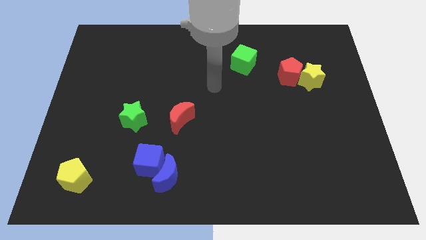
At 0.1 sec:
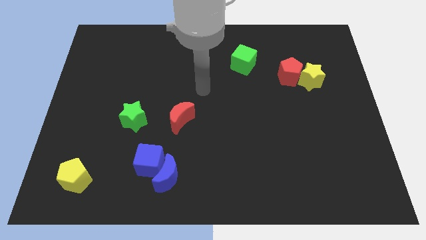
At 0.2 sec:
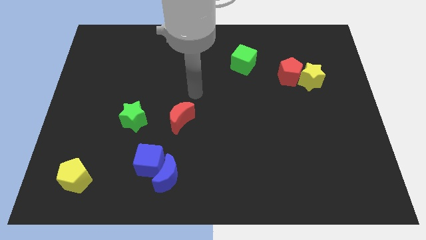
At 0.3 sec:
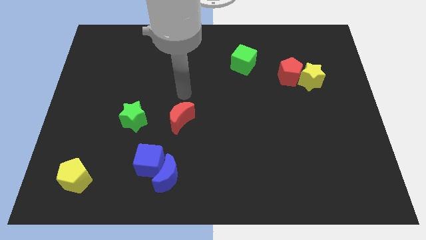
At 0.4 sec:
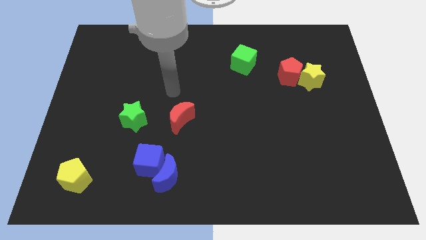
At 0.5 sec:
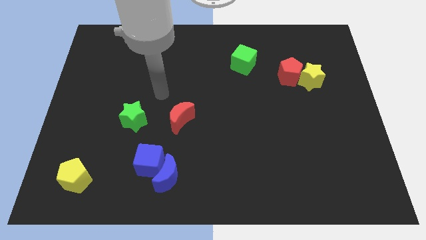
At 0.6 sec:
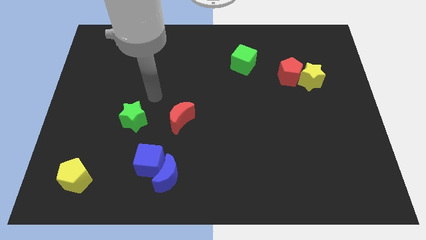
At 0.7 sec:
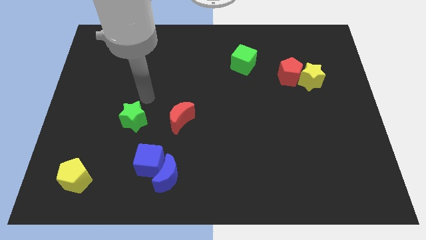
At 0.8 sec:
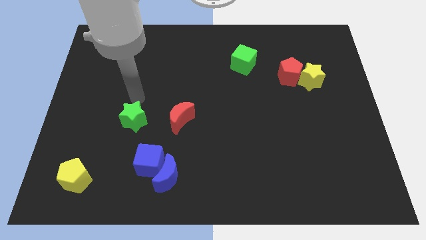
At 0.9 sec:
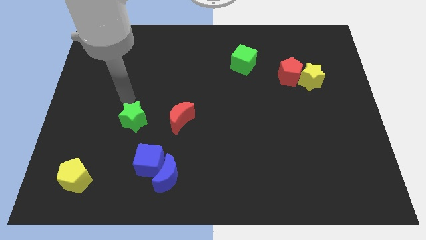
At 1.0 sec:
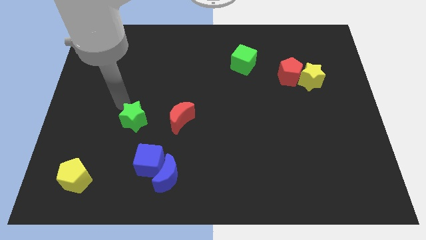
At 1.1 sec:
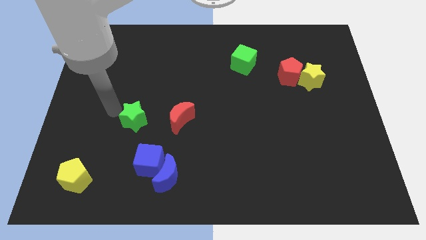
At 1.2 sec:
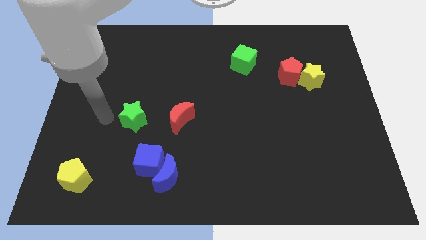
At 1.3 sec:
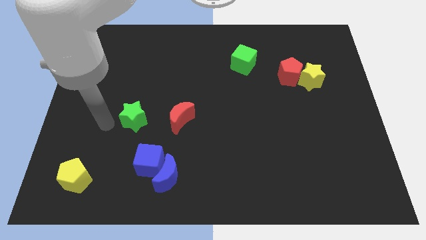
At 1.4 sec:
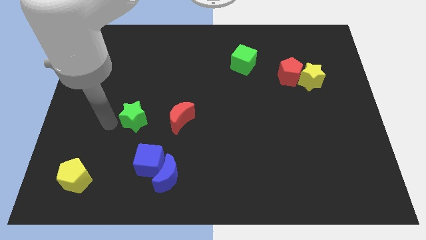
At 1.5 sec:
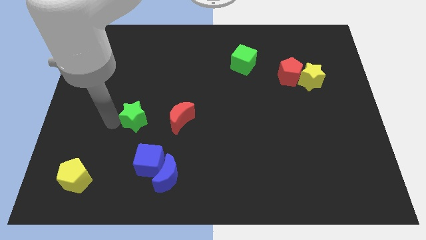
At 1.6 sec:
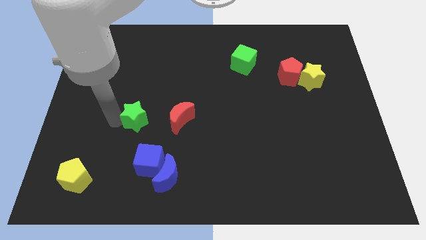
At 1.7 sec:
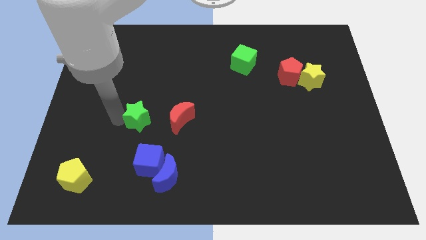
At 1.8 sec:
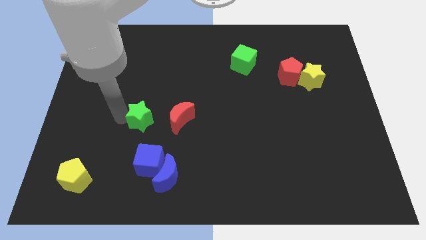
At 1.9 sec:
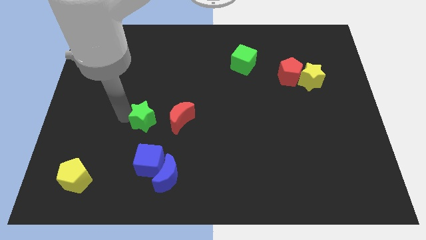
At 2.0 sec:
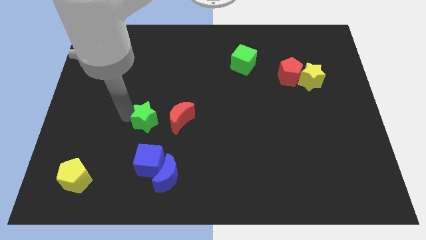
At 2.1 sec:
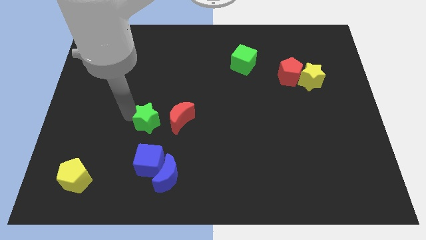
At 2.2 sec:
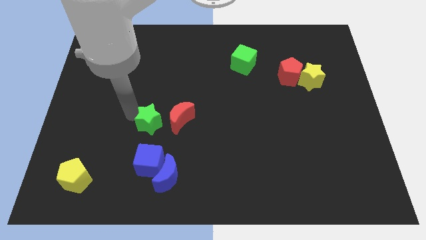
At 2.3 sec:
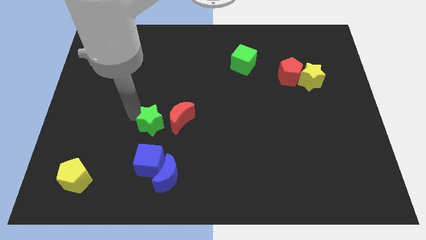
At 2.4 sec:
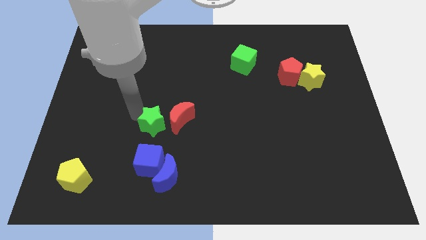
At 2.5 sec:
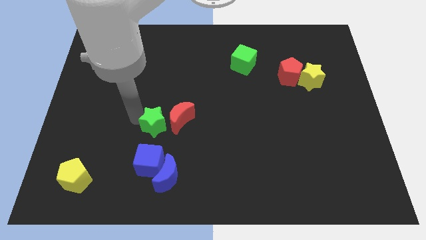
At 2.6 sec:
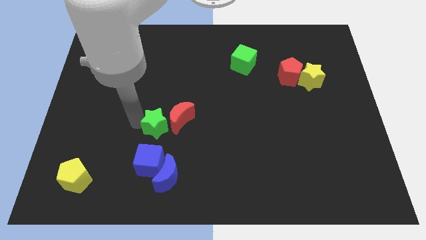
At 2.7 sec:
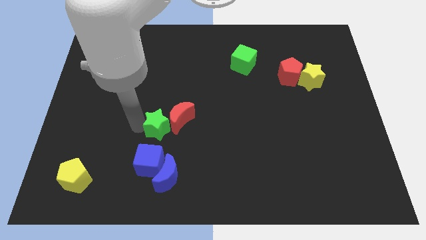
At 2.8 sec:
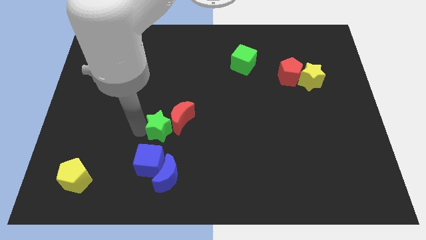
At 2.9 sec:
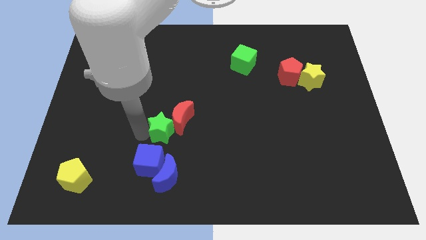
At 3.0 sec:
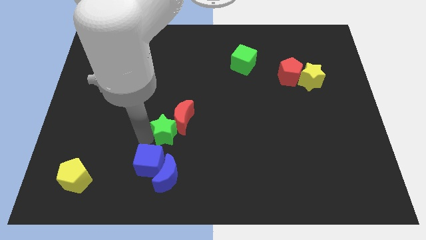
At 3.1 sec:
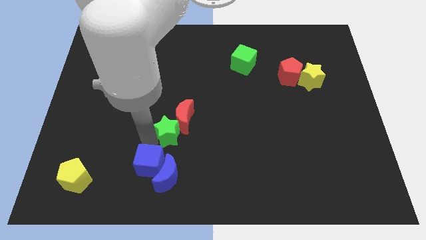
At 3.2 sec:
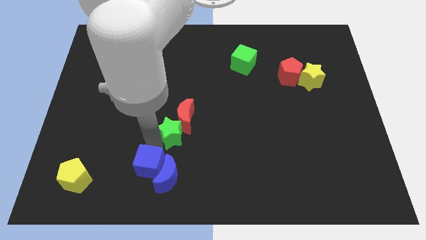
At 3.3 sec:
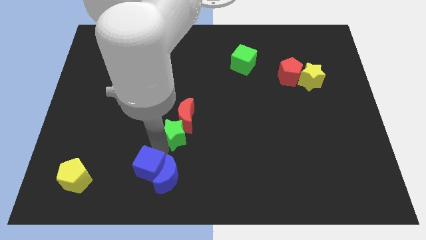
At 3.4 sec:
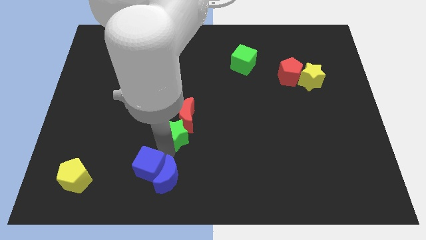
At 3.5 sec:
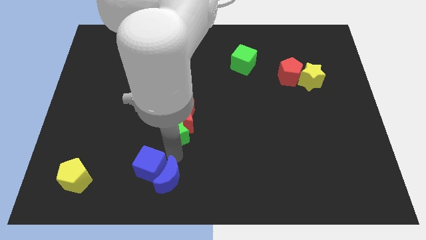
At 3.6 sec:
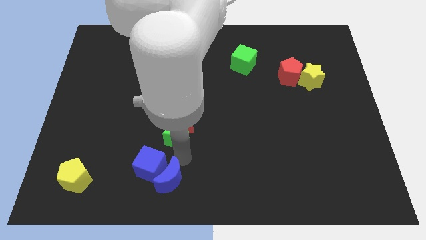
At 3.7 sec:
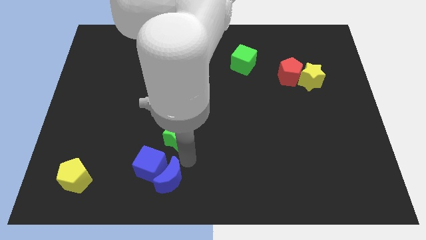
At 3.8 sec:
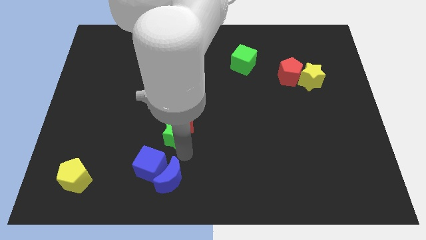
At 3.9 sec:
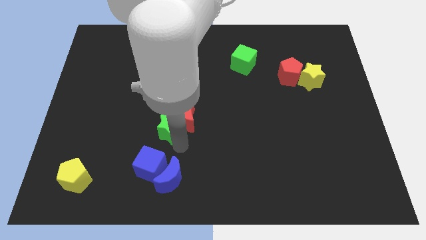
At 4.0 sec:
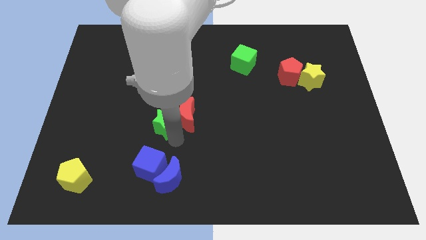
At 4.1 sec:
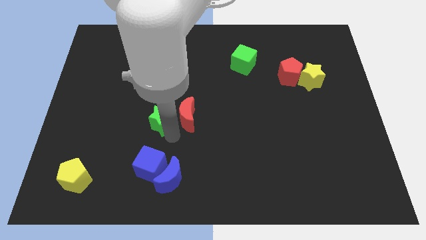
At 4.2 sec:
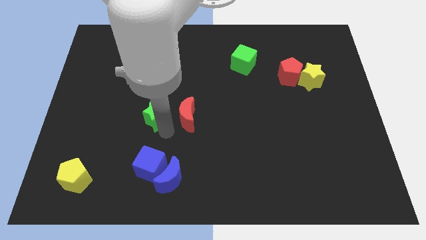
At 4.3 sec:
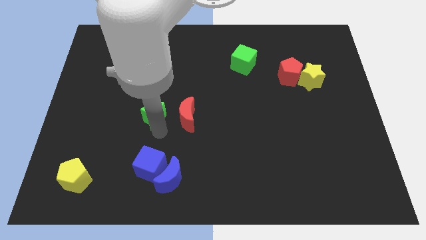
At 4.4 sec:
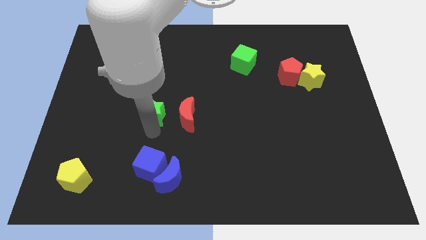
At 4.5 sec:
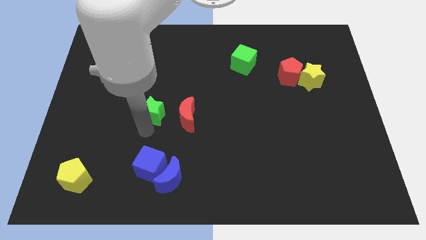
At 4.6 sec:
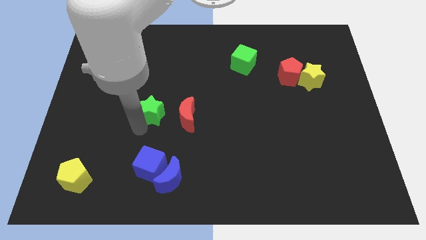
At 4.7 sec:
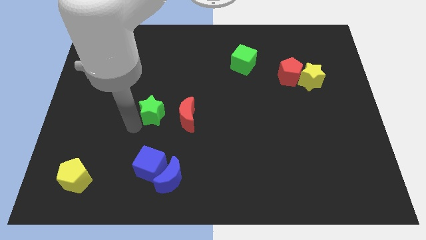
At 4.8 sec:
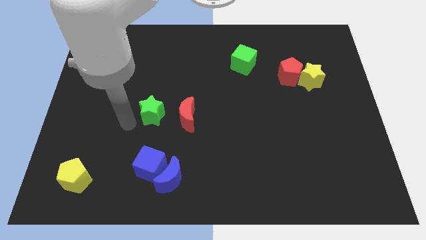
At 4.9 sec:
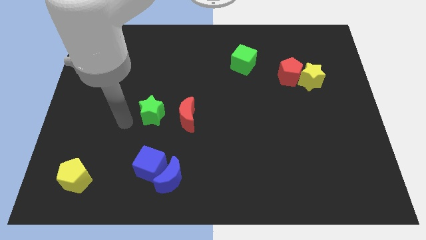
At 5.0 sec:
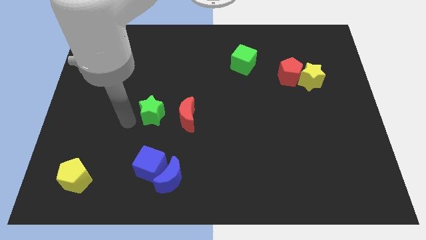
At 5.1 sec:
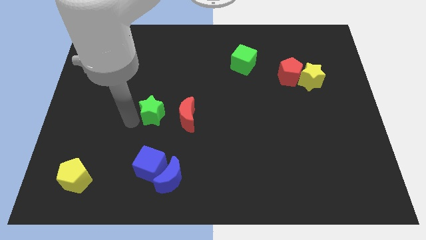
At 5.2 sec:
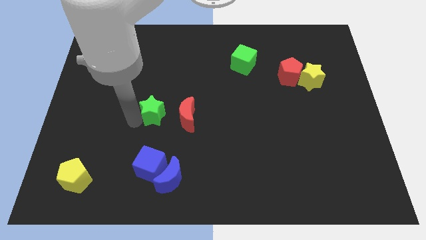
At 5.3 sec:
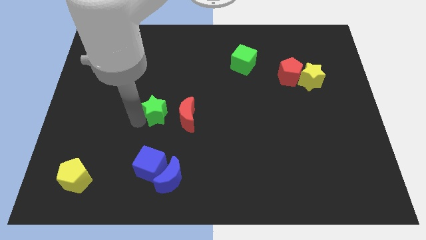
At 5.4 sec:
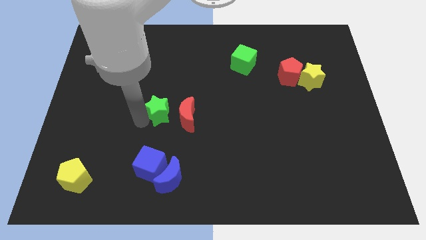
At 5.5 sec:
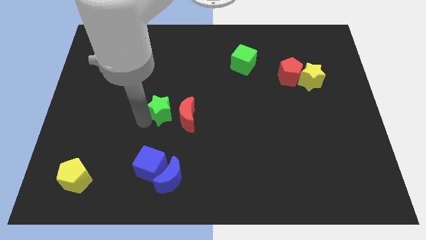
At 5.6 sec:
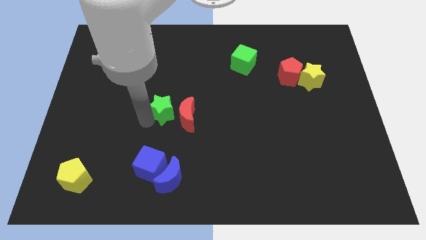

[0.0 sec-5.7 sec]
push the green star to the middle of the board
